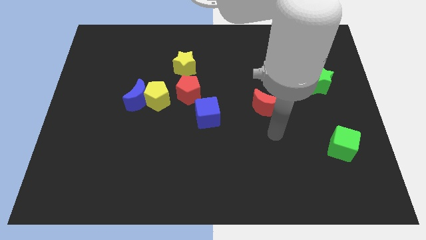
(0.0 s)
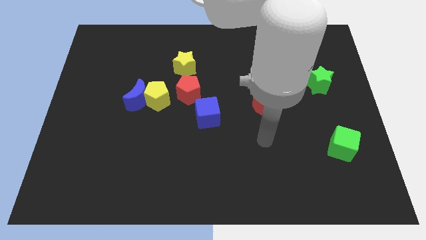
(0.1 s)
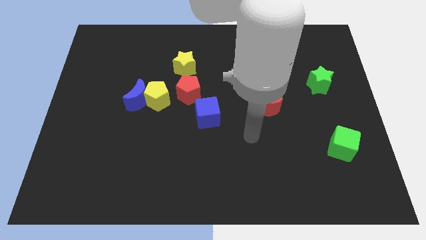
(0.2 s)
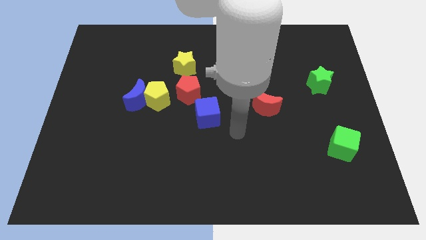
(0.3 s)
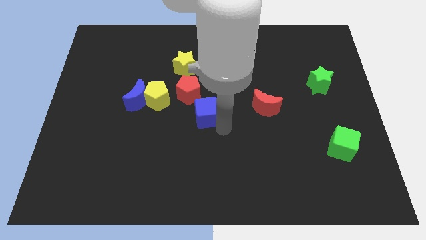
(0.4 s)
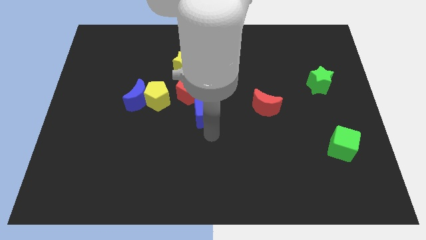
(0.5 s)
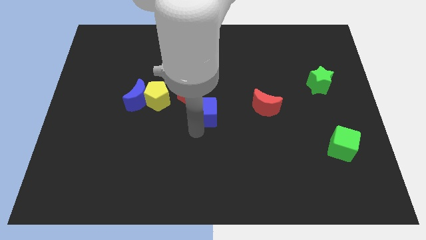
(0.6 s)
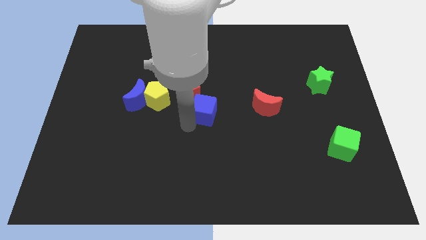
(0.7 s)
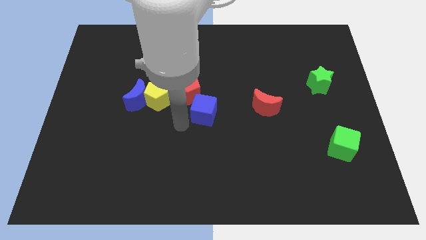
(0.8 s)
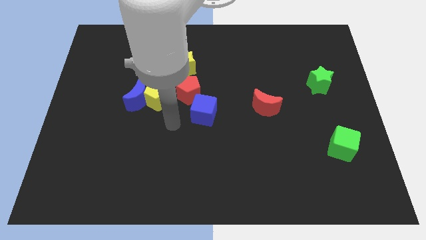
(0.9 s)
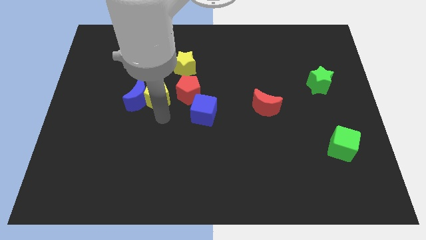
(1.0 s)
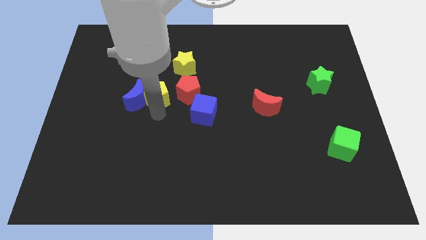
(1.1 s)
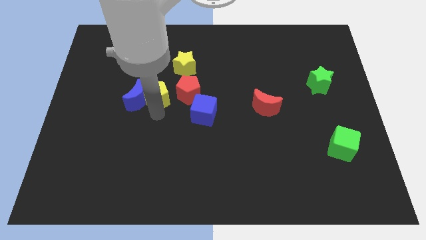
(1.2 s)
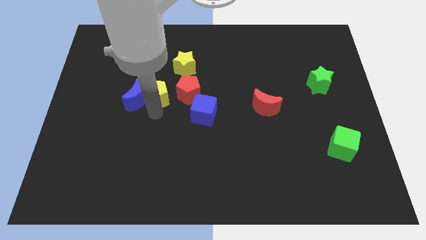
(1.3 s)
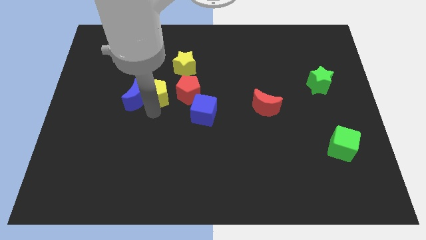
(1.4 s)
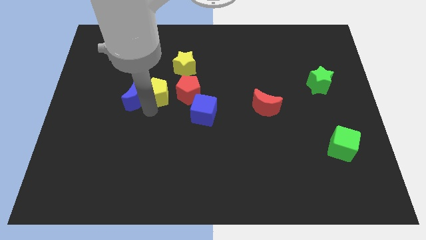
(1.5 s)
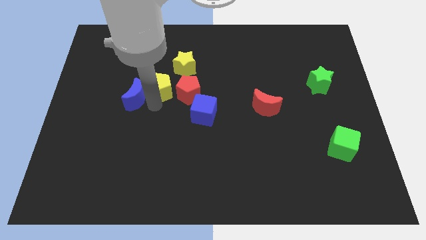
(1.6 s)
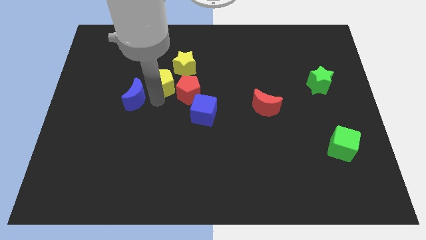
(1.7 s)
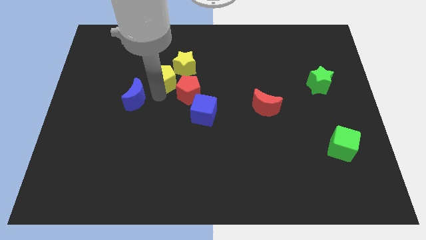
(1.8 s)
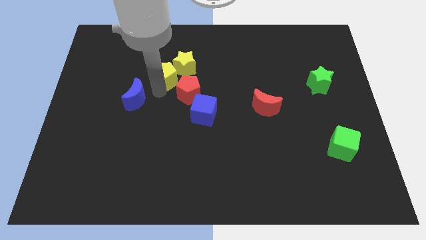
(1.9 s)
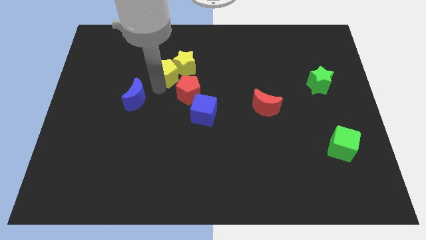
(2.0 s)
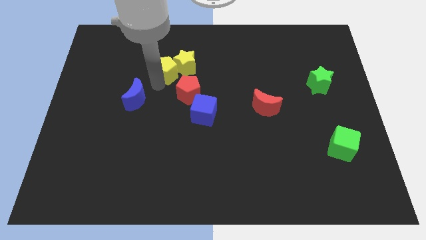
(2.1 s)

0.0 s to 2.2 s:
separate the blue moon from the yellow pentagon

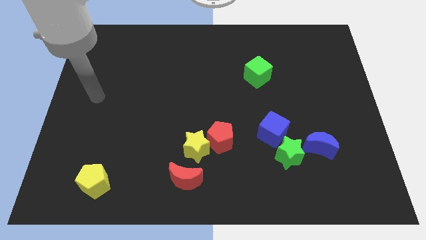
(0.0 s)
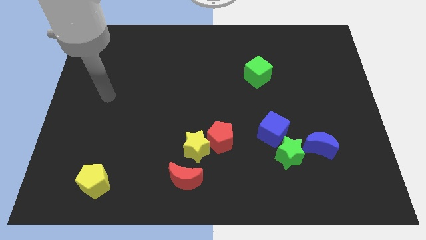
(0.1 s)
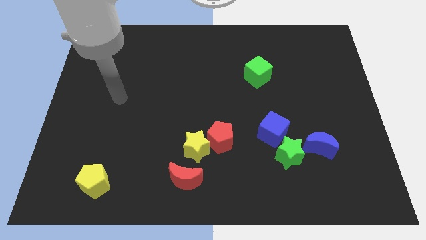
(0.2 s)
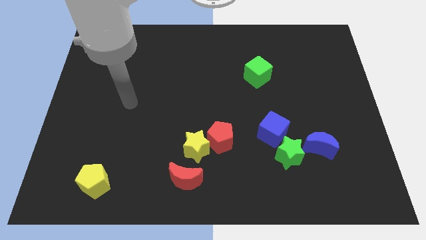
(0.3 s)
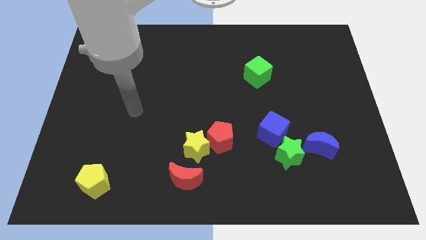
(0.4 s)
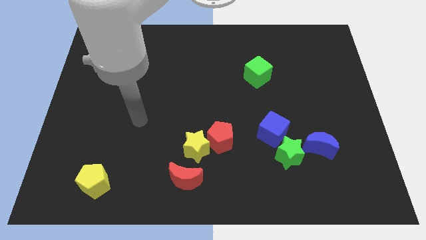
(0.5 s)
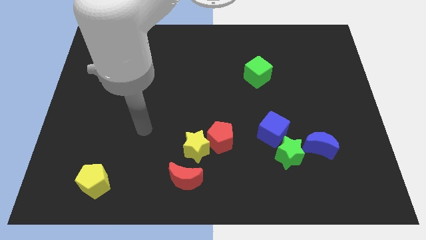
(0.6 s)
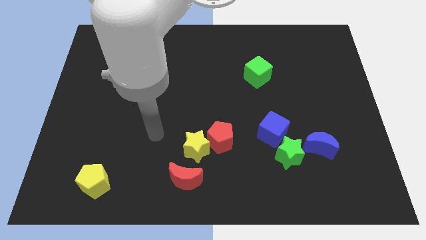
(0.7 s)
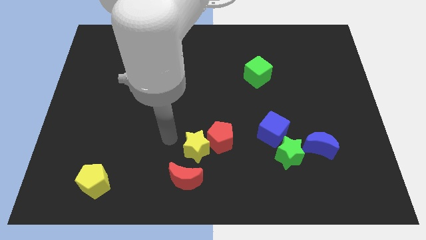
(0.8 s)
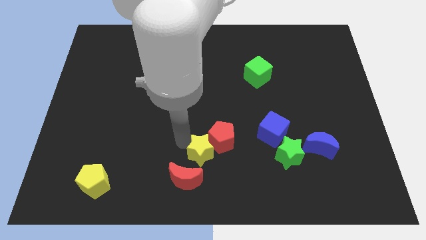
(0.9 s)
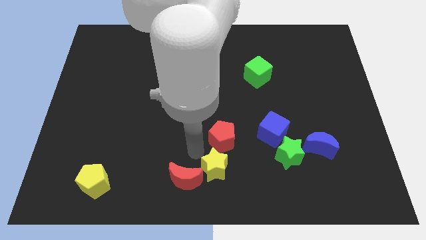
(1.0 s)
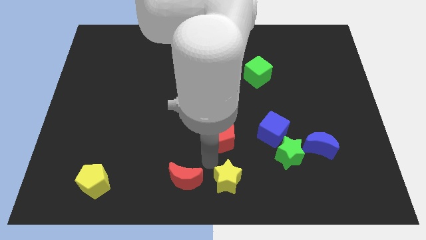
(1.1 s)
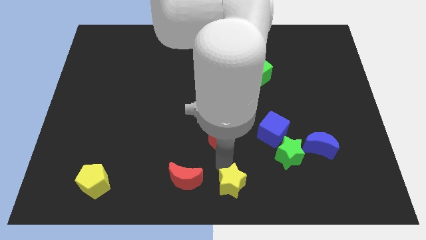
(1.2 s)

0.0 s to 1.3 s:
move the red pentagon away from the yellow star

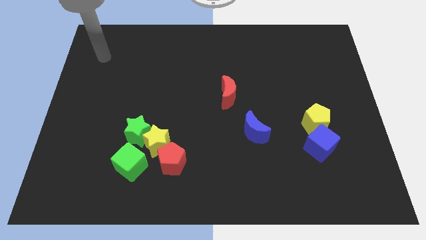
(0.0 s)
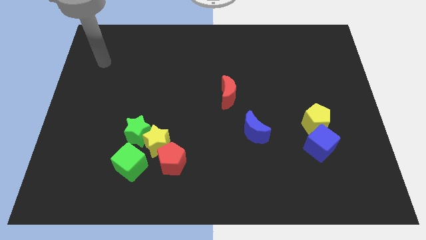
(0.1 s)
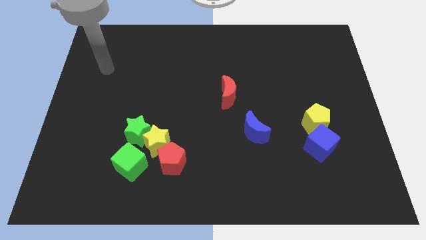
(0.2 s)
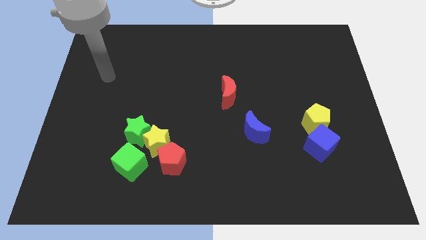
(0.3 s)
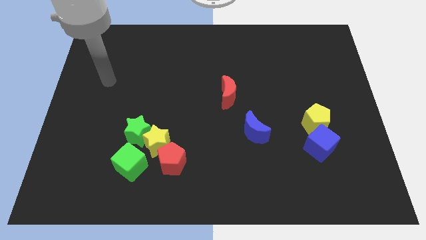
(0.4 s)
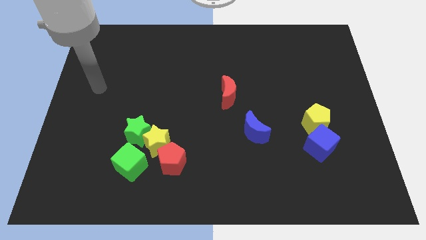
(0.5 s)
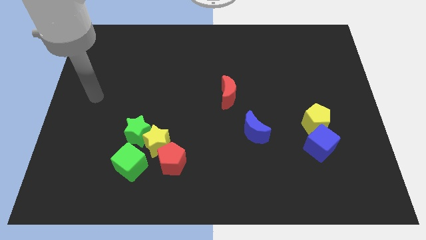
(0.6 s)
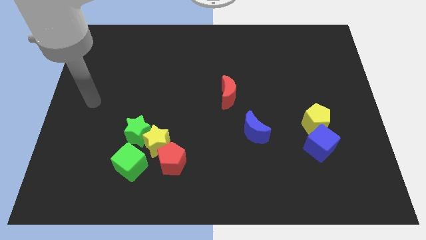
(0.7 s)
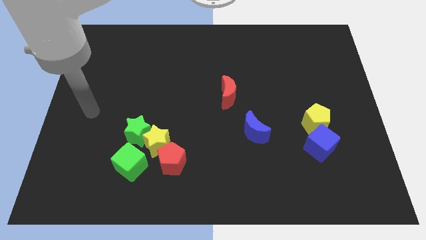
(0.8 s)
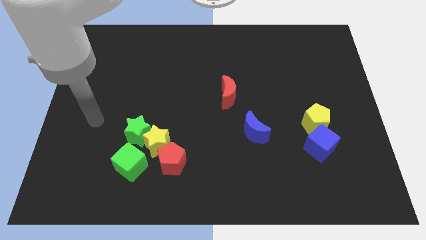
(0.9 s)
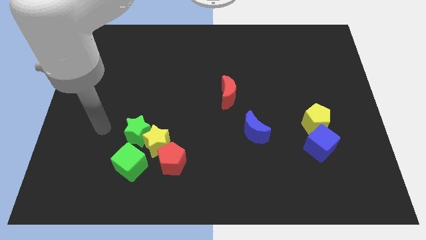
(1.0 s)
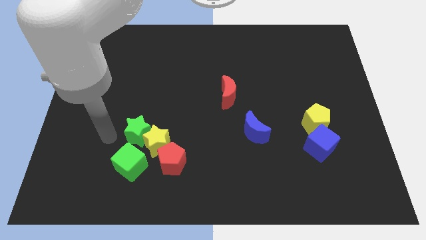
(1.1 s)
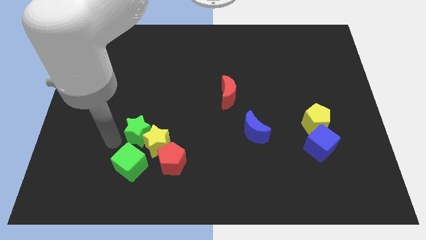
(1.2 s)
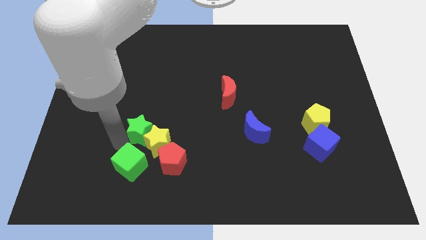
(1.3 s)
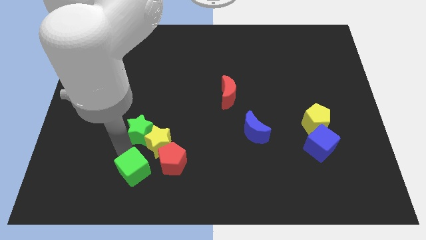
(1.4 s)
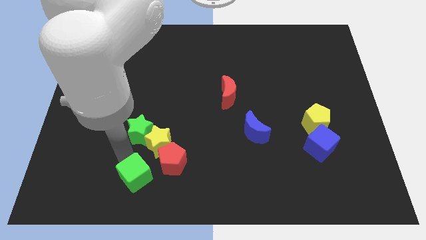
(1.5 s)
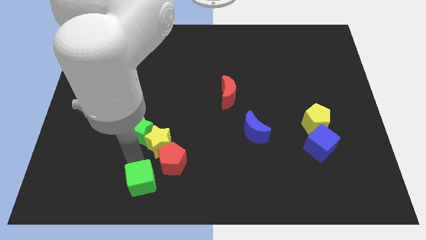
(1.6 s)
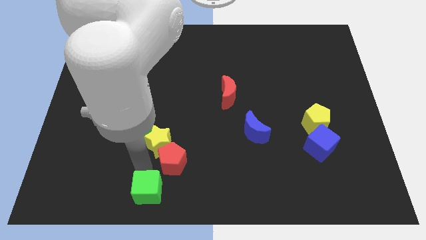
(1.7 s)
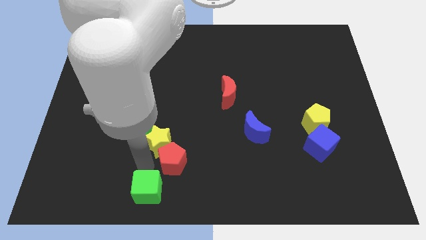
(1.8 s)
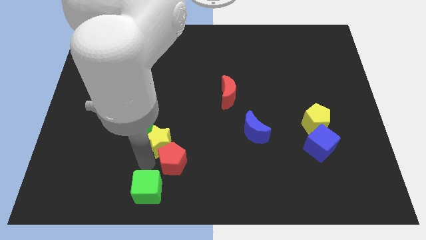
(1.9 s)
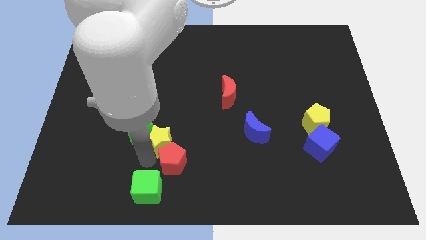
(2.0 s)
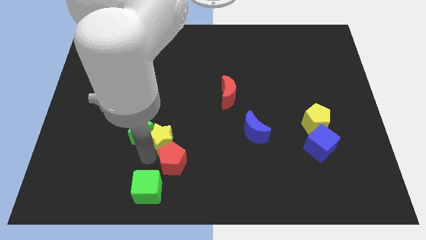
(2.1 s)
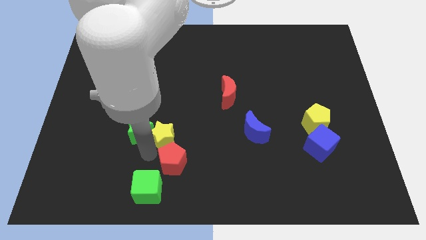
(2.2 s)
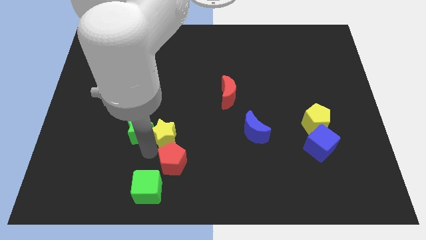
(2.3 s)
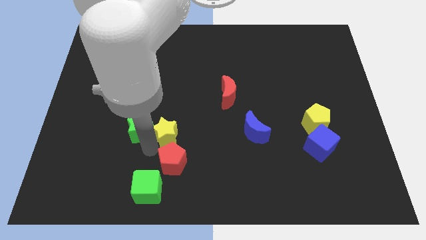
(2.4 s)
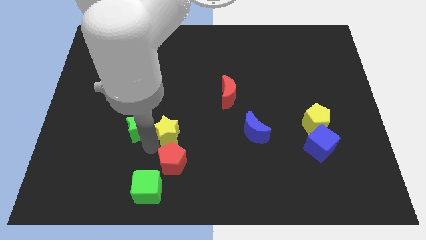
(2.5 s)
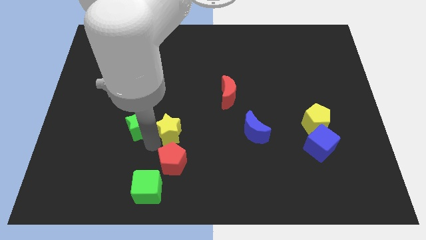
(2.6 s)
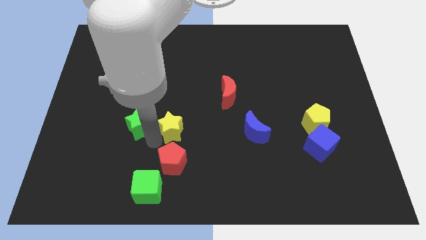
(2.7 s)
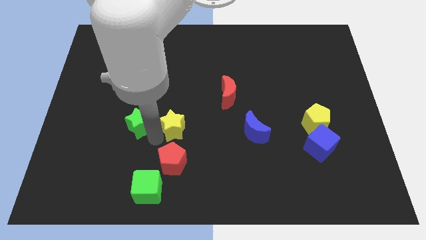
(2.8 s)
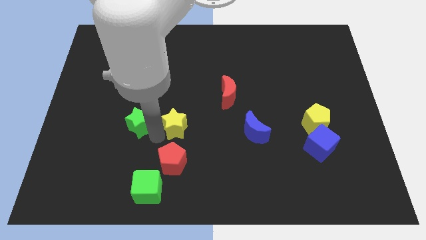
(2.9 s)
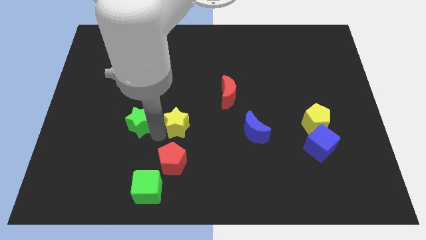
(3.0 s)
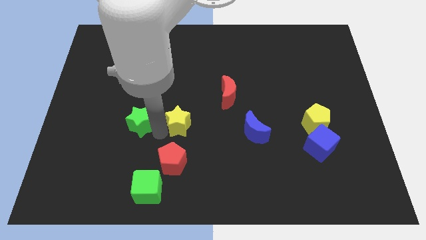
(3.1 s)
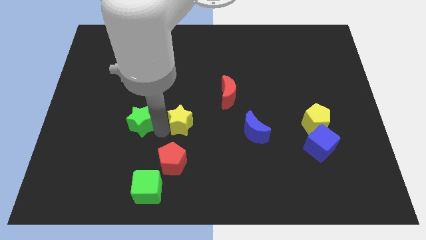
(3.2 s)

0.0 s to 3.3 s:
move the yellow star away from the group

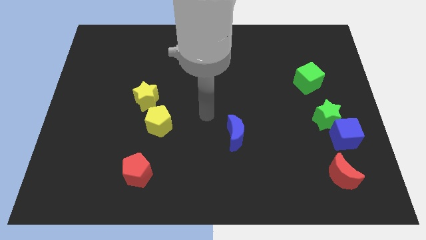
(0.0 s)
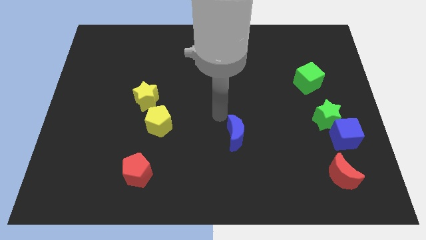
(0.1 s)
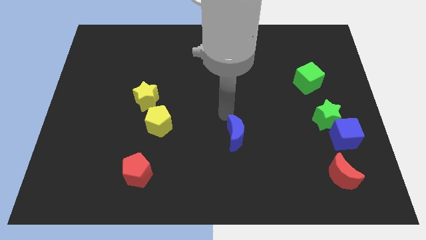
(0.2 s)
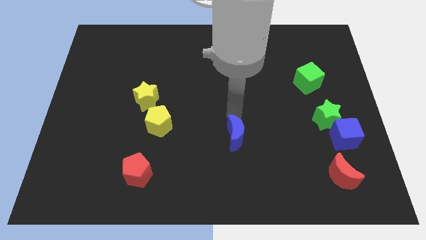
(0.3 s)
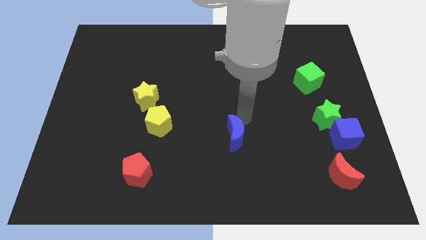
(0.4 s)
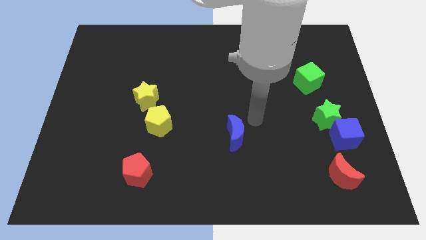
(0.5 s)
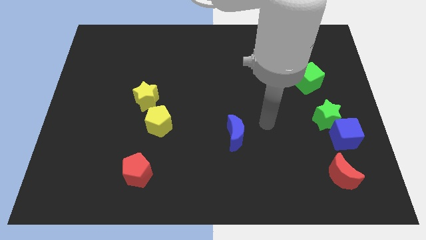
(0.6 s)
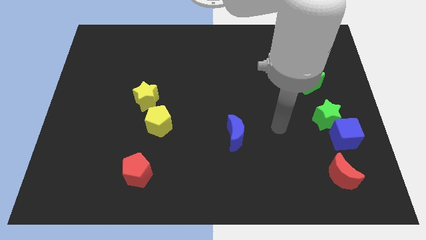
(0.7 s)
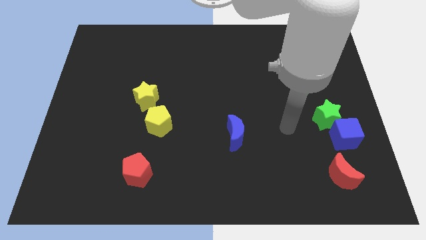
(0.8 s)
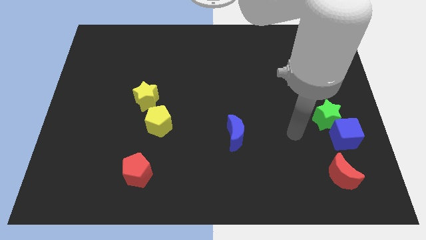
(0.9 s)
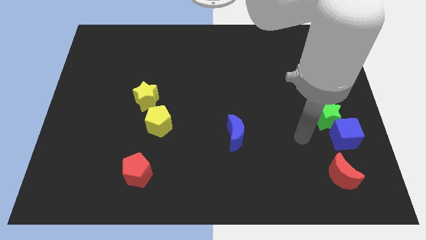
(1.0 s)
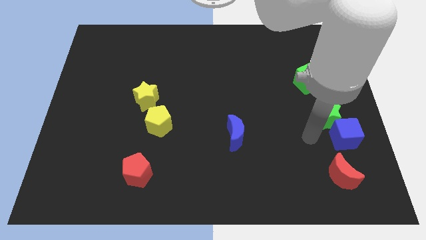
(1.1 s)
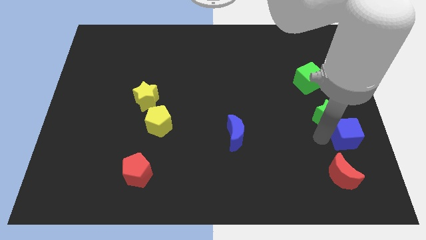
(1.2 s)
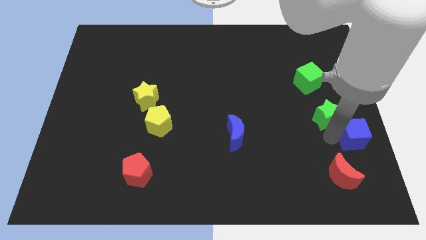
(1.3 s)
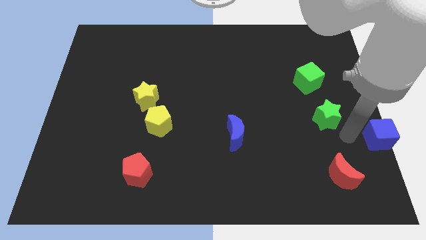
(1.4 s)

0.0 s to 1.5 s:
pull the green star apart from the blue cube

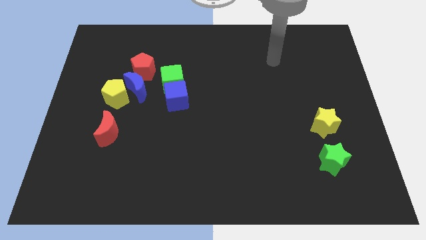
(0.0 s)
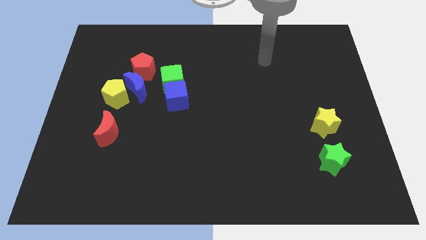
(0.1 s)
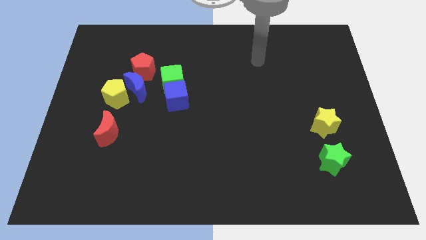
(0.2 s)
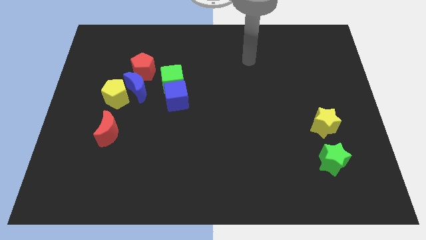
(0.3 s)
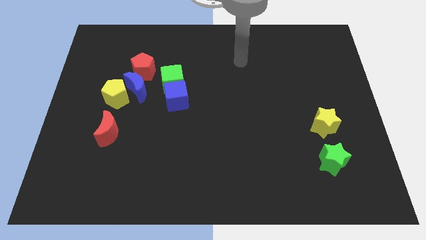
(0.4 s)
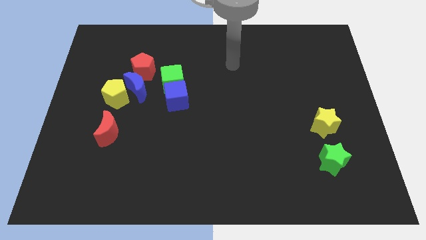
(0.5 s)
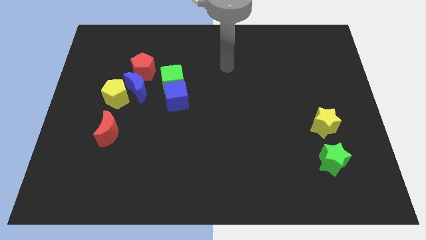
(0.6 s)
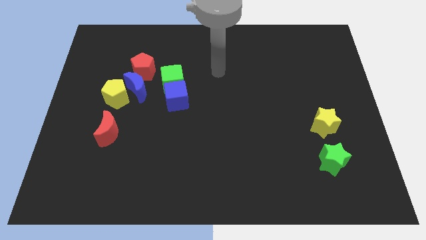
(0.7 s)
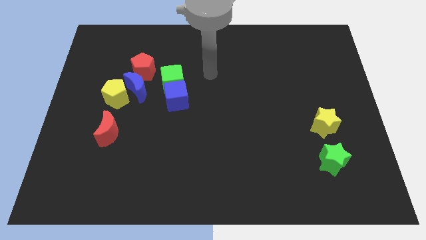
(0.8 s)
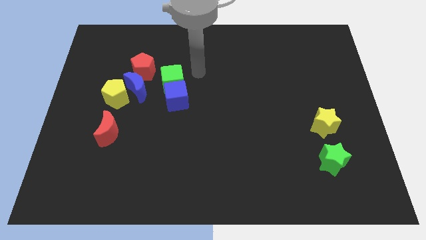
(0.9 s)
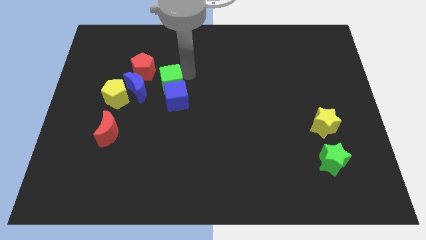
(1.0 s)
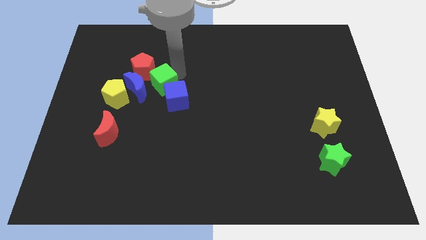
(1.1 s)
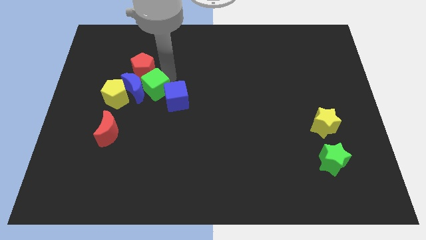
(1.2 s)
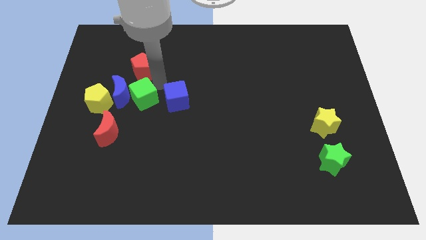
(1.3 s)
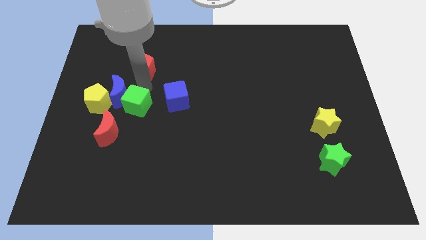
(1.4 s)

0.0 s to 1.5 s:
separate the red pentagon from the blue moon and green cube
